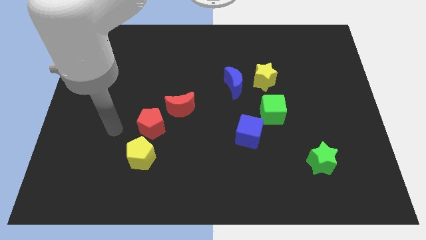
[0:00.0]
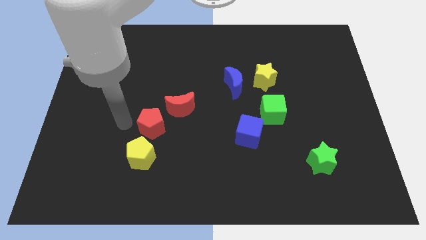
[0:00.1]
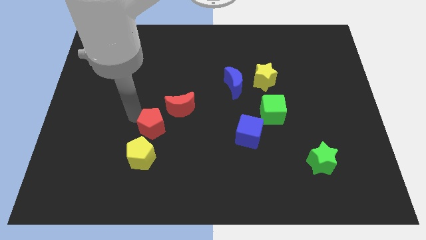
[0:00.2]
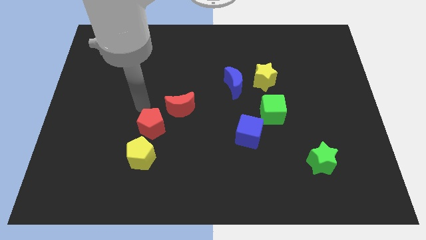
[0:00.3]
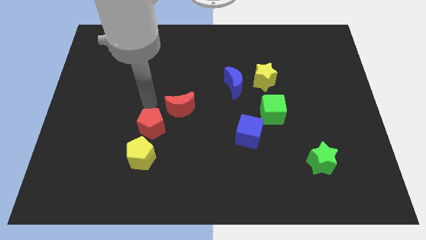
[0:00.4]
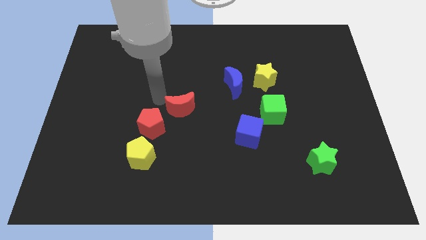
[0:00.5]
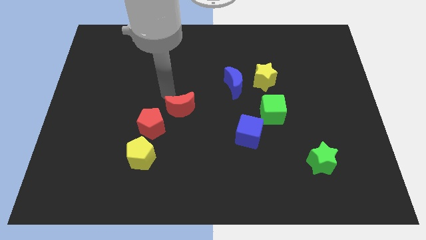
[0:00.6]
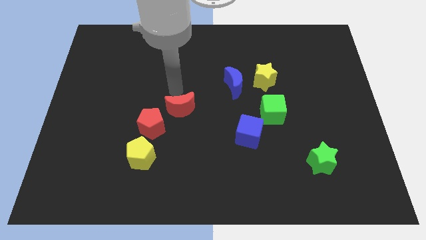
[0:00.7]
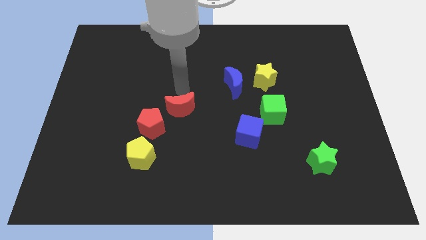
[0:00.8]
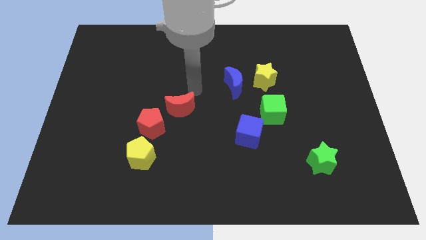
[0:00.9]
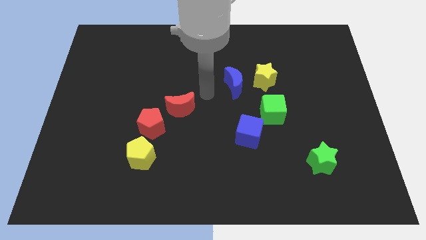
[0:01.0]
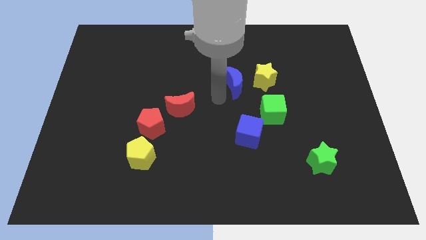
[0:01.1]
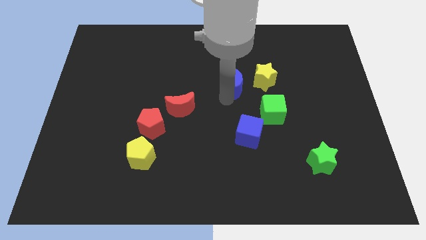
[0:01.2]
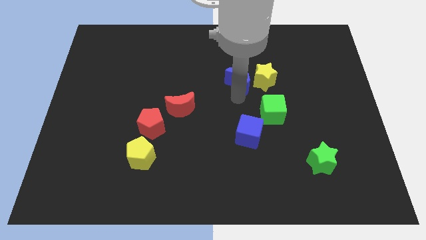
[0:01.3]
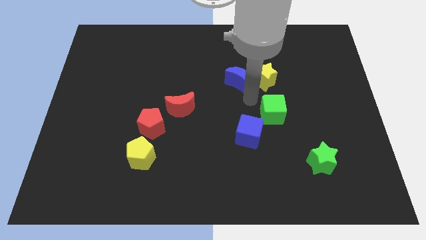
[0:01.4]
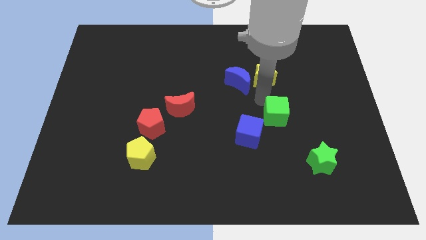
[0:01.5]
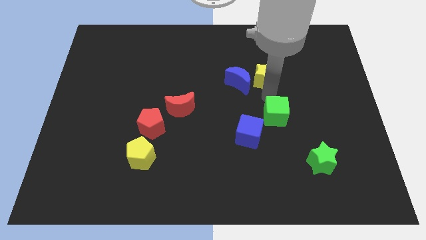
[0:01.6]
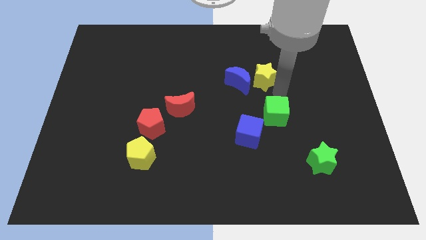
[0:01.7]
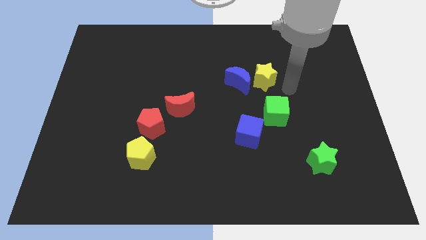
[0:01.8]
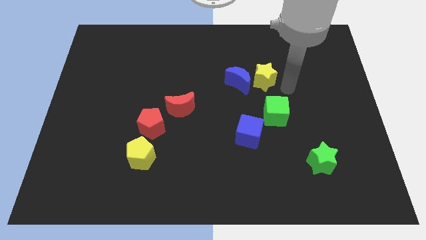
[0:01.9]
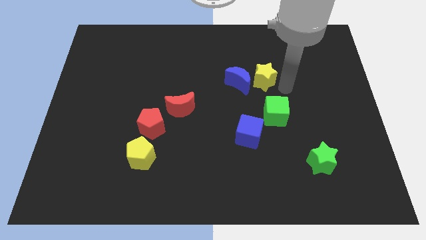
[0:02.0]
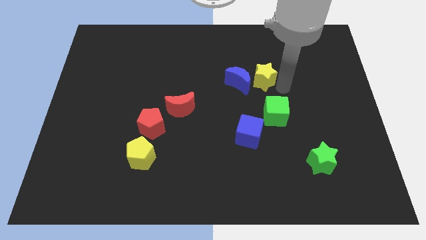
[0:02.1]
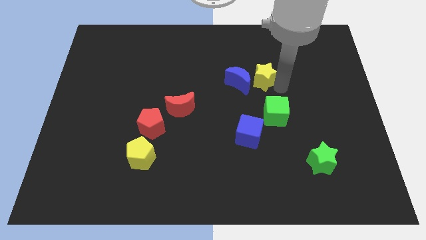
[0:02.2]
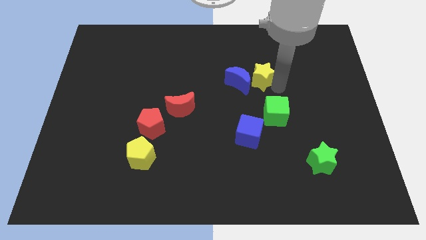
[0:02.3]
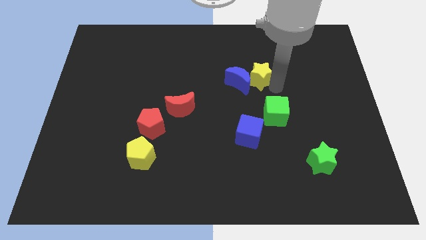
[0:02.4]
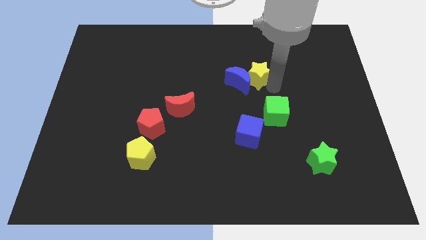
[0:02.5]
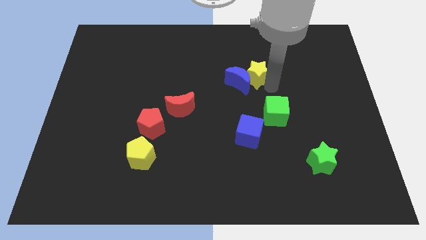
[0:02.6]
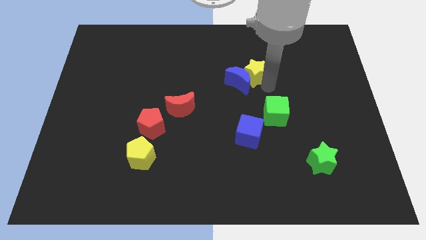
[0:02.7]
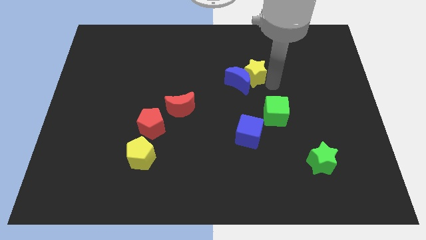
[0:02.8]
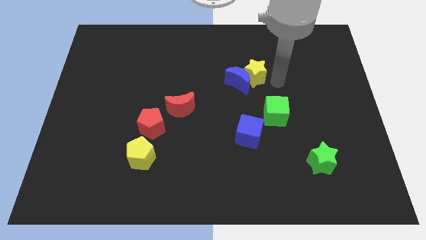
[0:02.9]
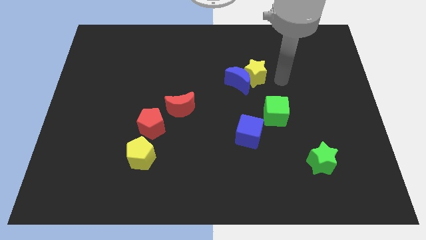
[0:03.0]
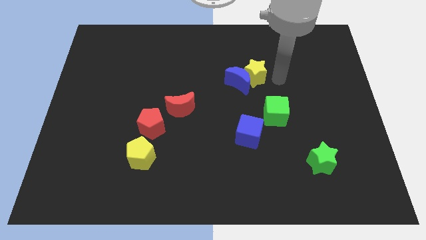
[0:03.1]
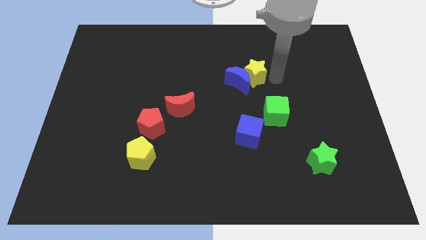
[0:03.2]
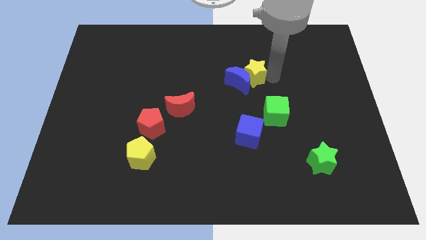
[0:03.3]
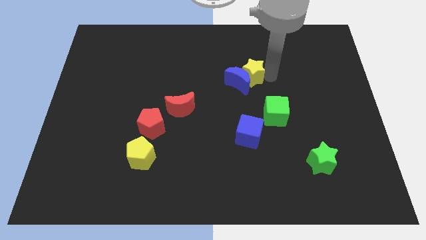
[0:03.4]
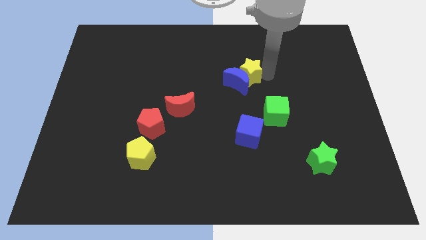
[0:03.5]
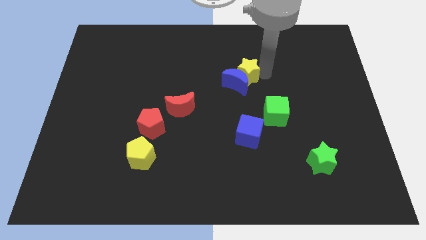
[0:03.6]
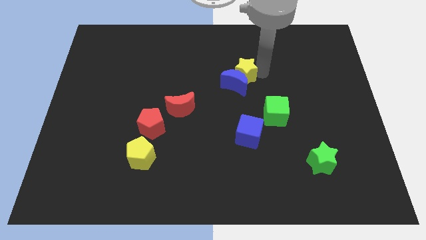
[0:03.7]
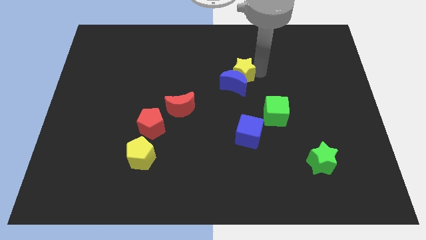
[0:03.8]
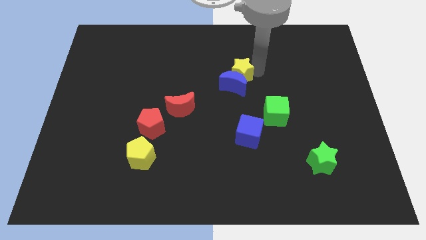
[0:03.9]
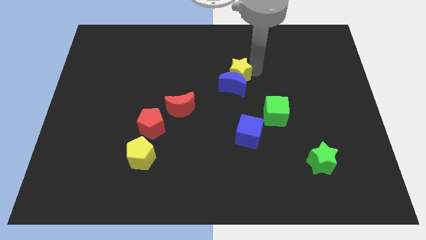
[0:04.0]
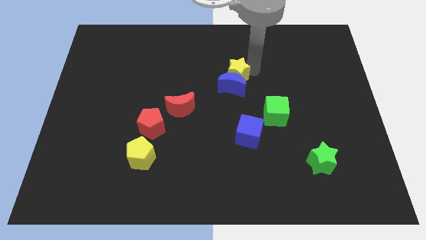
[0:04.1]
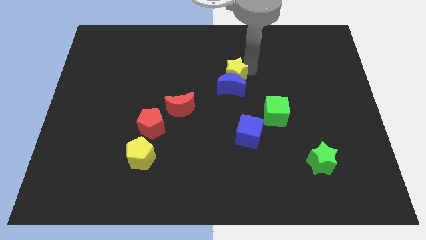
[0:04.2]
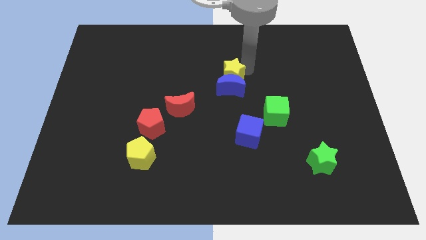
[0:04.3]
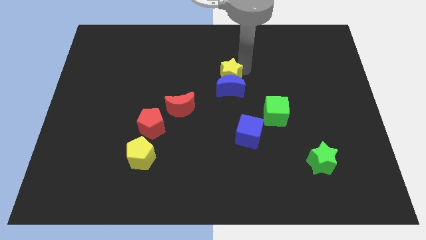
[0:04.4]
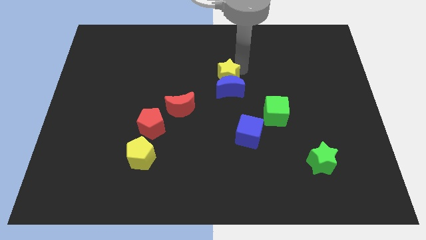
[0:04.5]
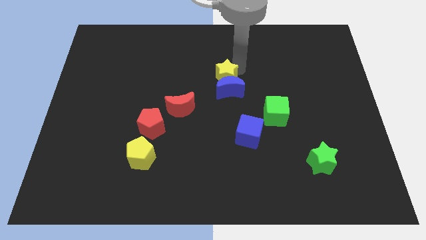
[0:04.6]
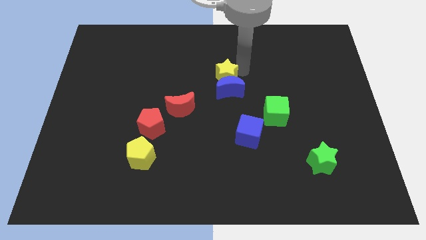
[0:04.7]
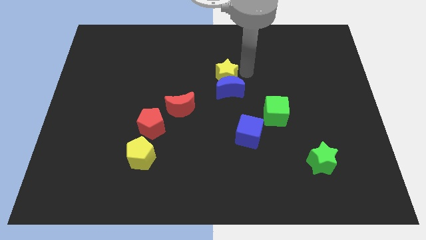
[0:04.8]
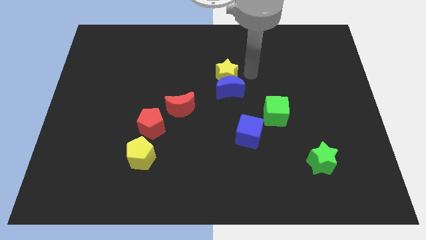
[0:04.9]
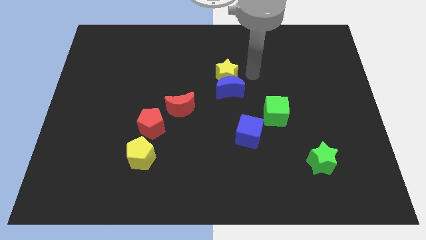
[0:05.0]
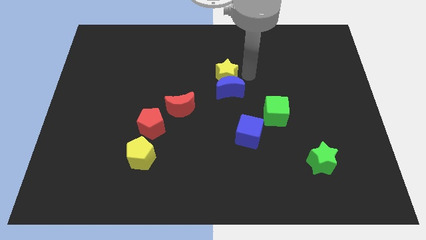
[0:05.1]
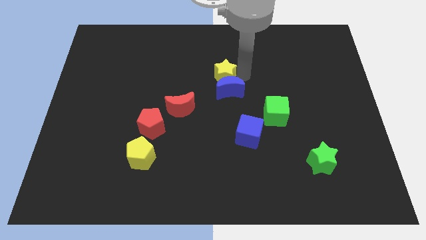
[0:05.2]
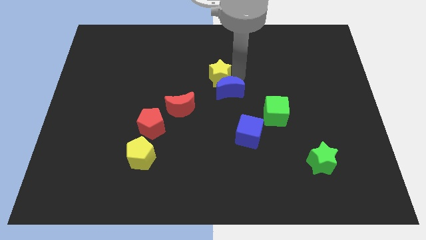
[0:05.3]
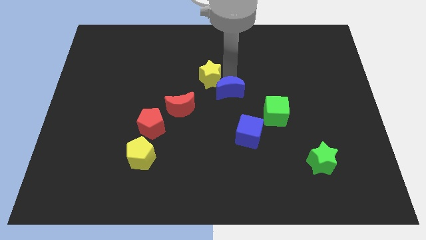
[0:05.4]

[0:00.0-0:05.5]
move the yellow star to the left side of the blue moon

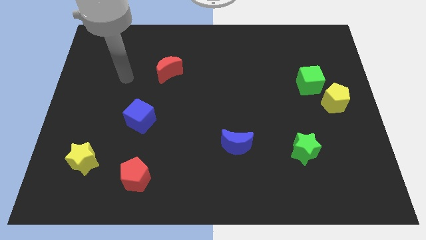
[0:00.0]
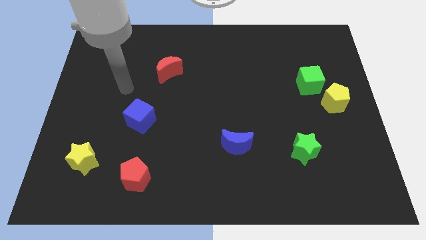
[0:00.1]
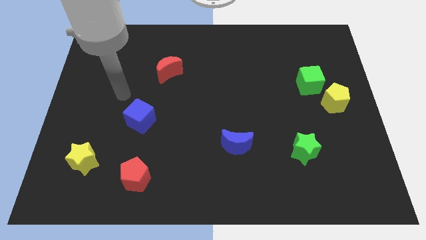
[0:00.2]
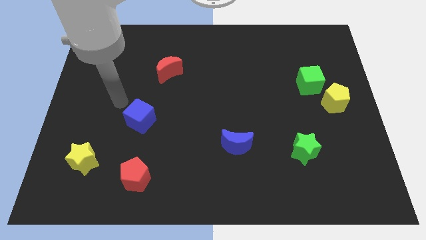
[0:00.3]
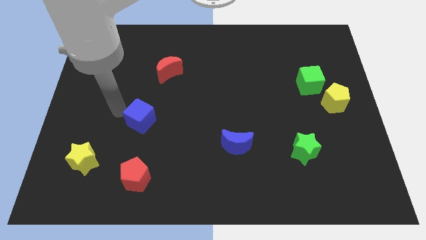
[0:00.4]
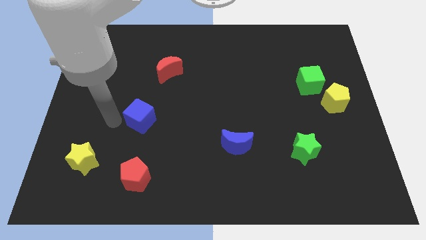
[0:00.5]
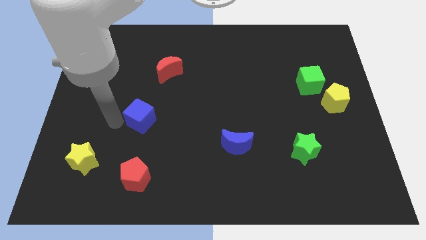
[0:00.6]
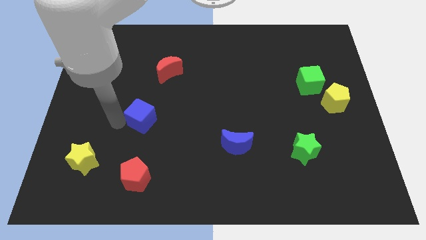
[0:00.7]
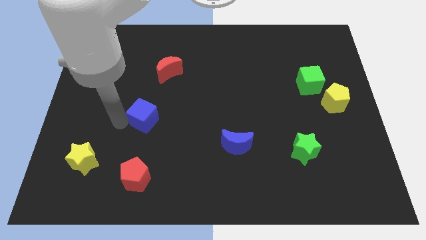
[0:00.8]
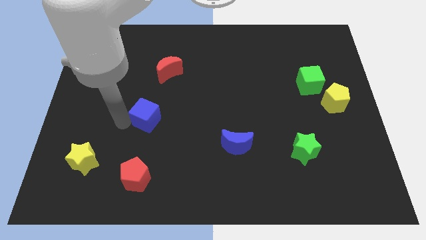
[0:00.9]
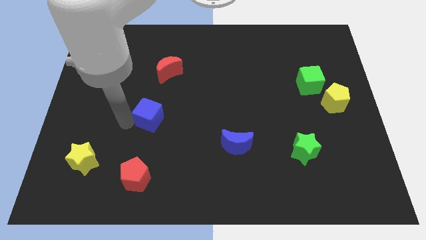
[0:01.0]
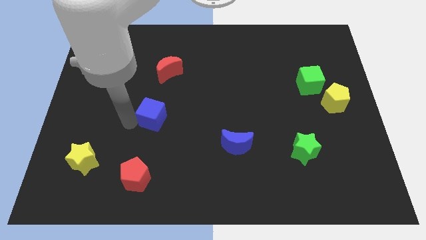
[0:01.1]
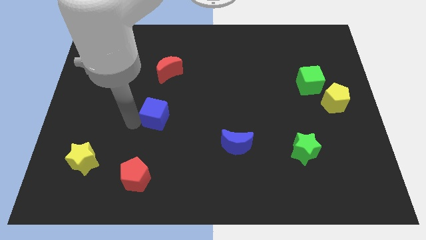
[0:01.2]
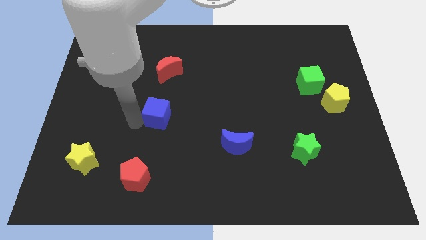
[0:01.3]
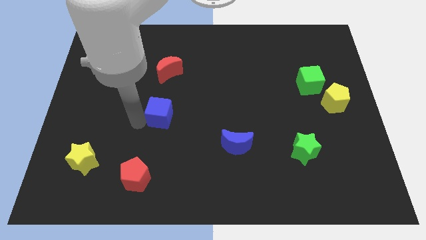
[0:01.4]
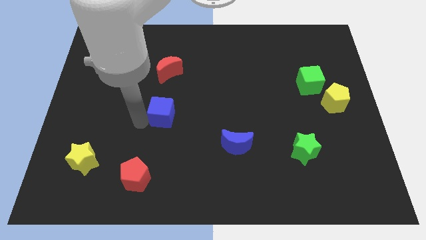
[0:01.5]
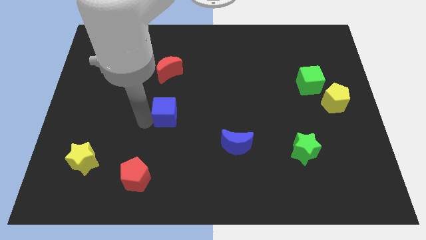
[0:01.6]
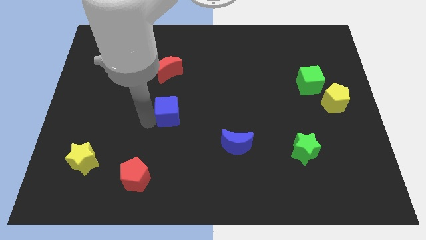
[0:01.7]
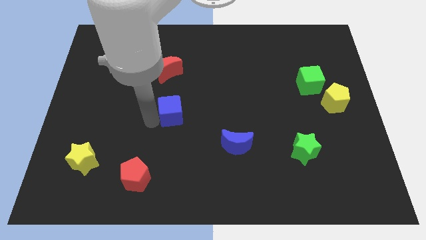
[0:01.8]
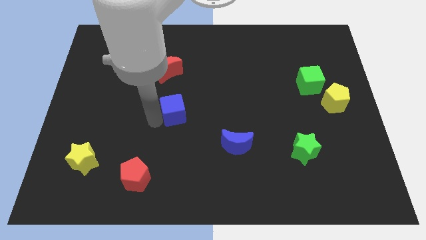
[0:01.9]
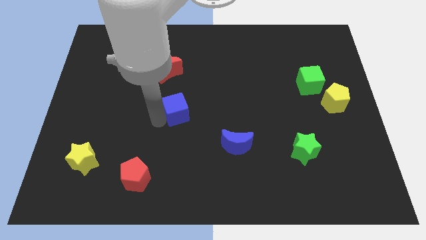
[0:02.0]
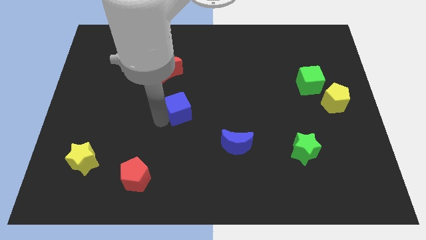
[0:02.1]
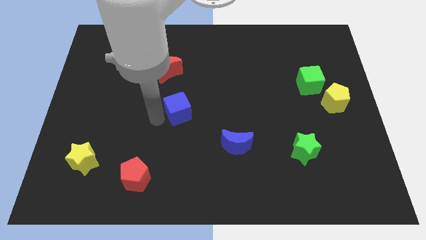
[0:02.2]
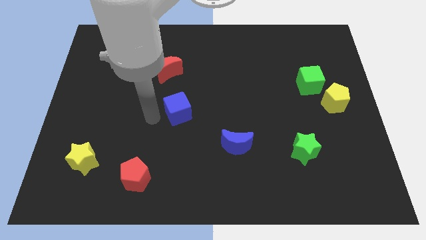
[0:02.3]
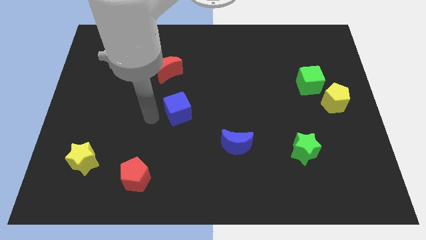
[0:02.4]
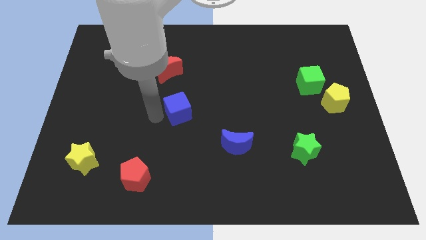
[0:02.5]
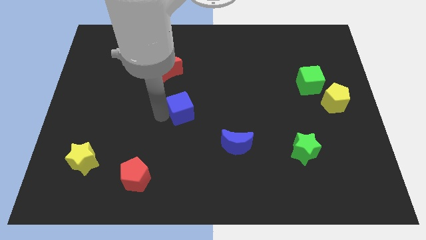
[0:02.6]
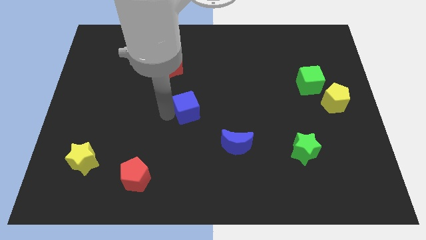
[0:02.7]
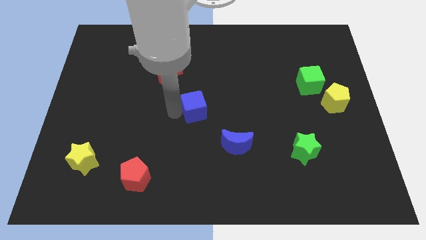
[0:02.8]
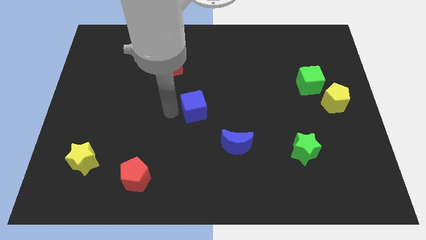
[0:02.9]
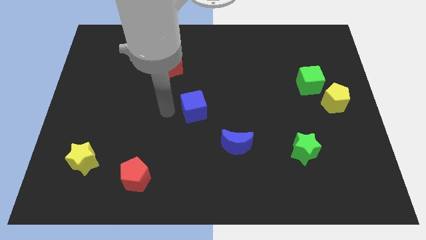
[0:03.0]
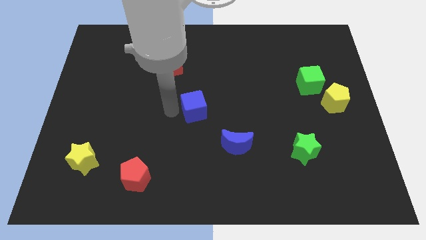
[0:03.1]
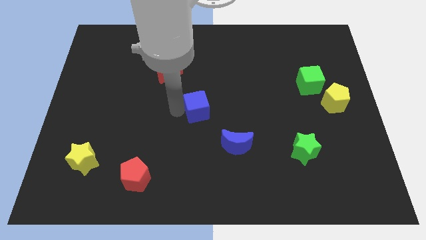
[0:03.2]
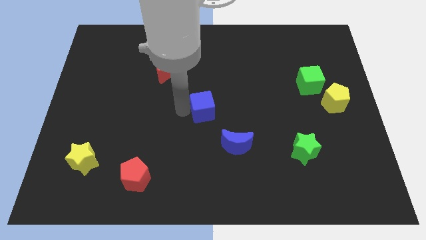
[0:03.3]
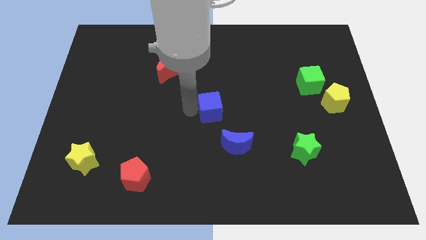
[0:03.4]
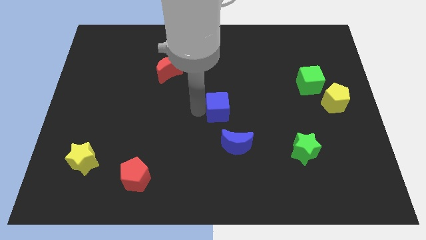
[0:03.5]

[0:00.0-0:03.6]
put the blue cube above the blue moon
